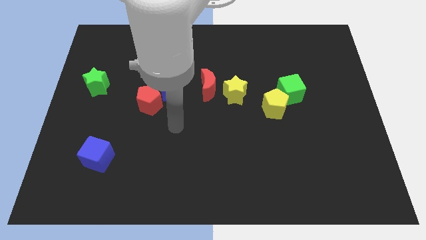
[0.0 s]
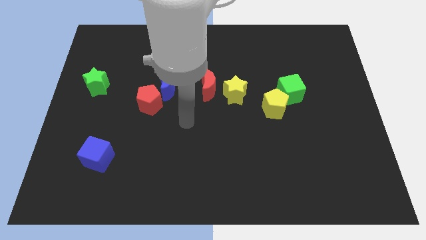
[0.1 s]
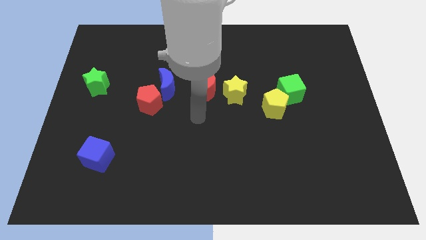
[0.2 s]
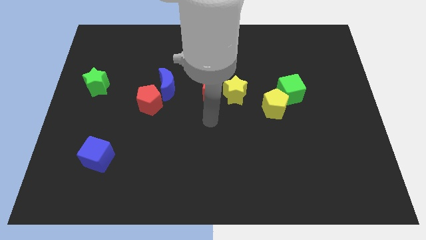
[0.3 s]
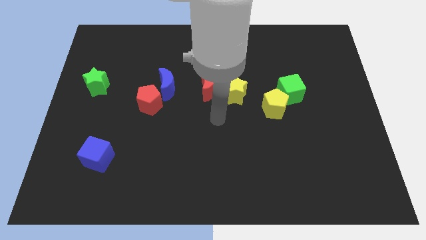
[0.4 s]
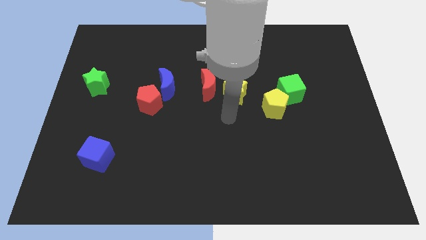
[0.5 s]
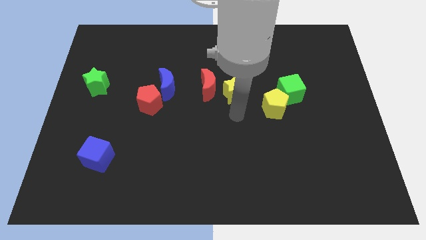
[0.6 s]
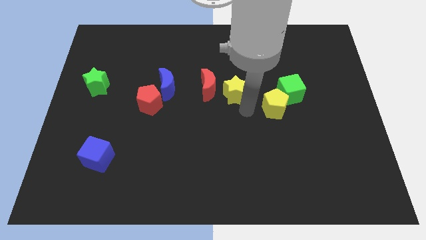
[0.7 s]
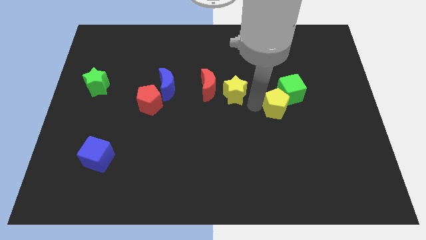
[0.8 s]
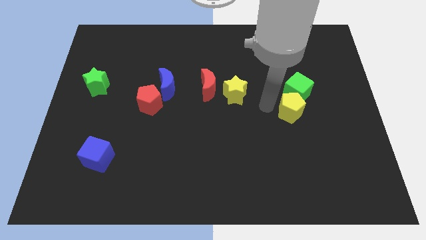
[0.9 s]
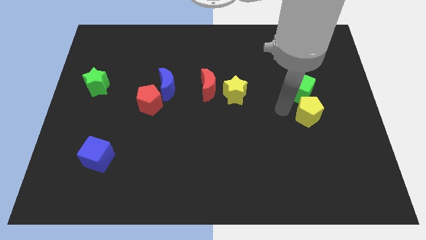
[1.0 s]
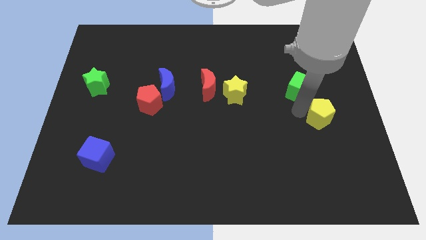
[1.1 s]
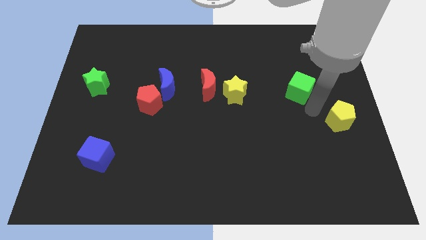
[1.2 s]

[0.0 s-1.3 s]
pull the green cube apart from the yellow pentagon

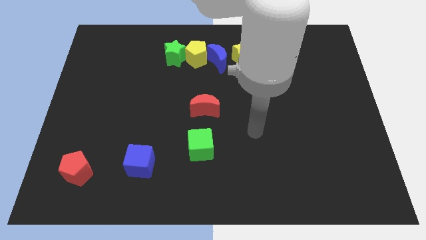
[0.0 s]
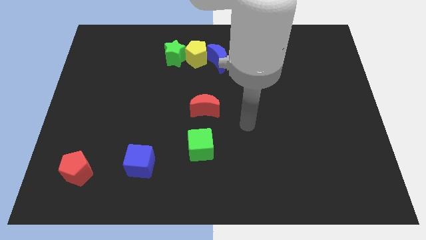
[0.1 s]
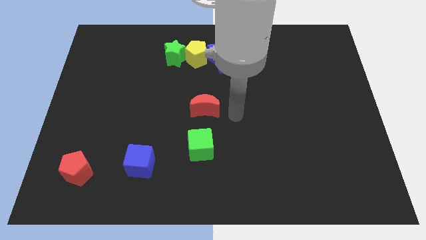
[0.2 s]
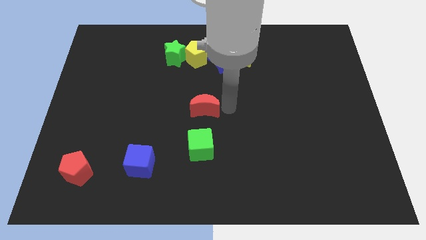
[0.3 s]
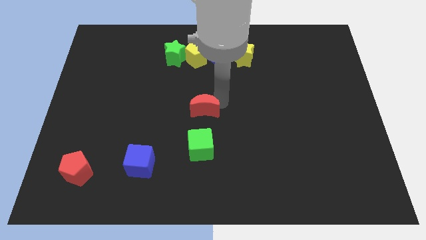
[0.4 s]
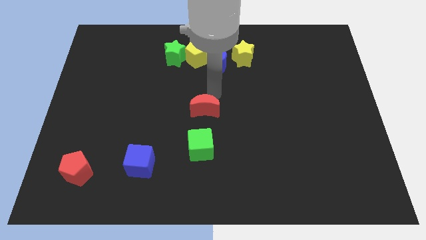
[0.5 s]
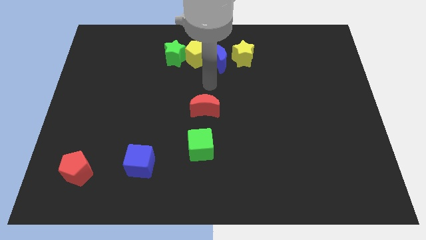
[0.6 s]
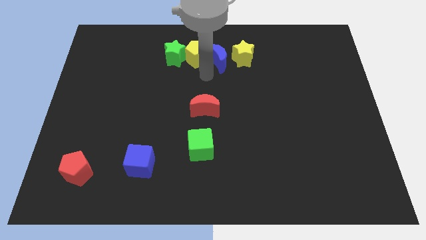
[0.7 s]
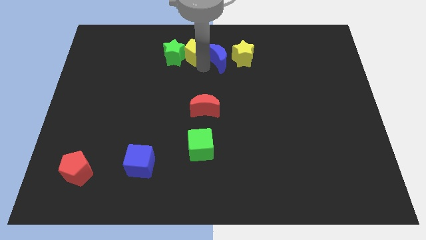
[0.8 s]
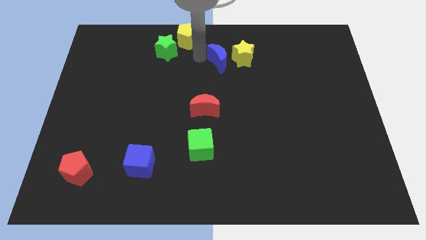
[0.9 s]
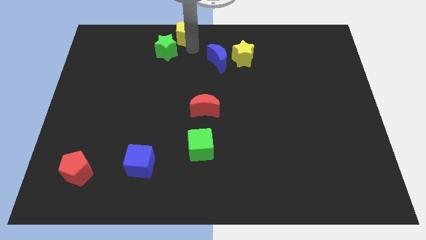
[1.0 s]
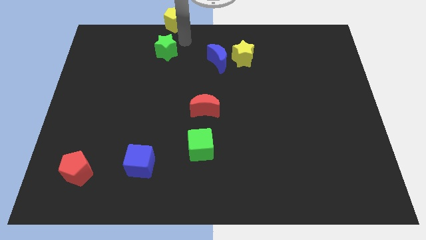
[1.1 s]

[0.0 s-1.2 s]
move the green star away from the yellow pentagon

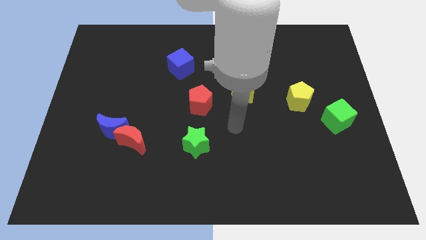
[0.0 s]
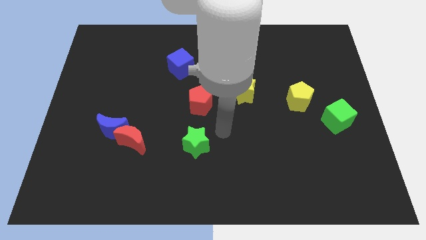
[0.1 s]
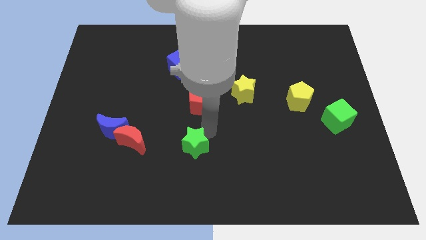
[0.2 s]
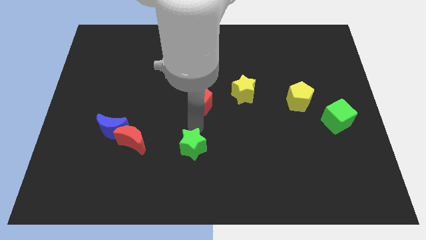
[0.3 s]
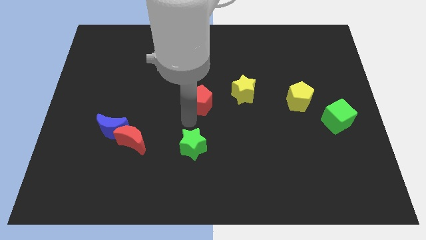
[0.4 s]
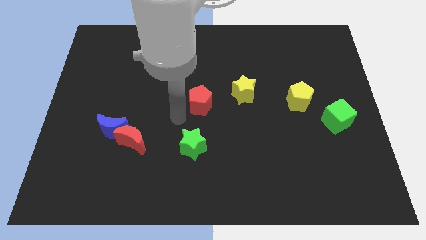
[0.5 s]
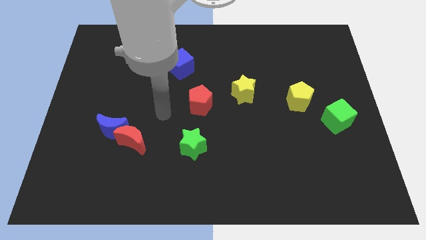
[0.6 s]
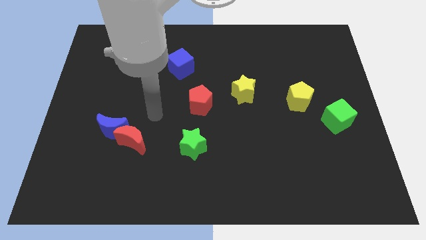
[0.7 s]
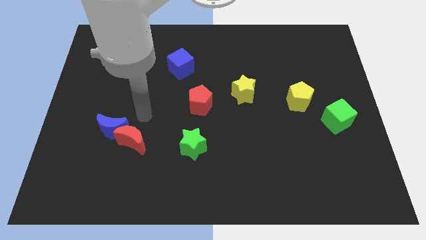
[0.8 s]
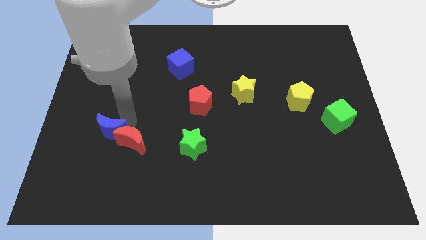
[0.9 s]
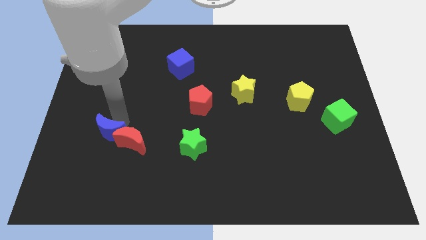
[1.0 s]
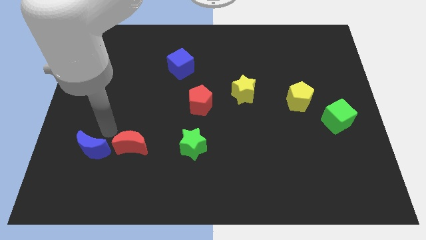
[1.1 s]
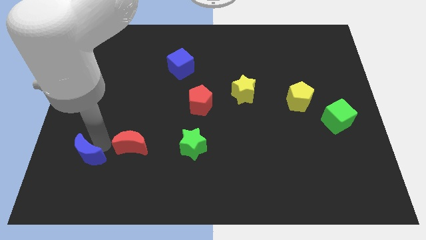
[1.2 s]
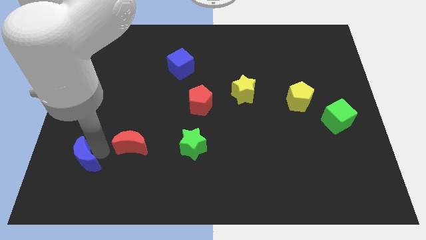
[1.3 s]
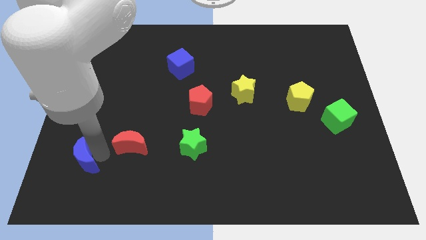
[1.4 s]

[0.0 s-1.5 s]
move the red moon away from the blue moon

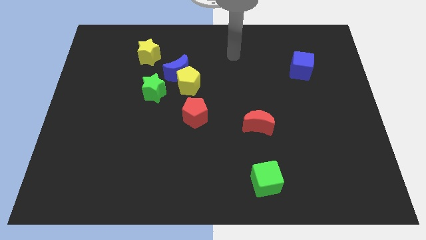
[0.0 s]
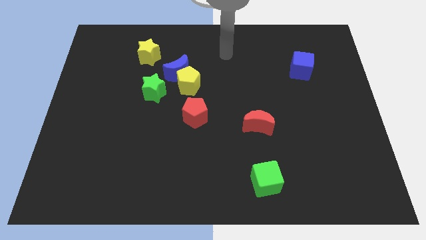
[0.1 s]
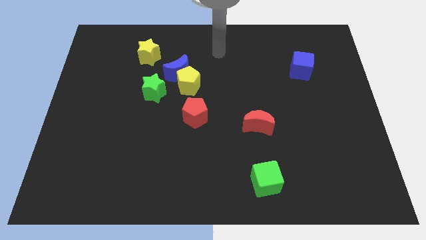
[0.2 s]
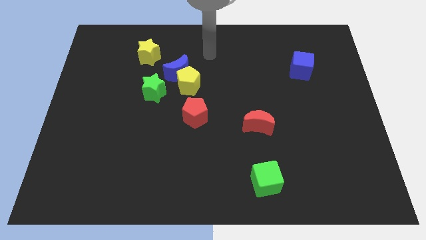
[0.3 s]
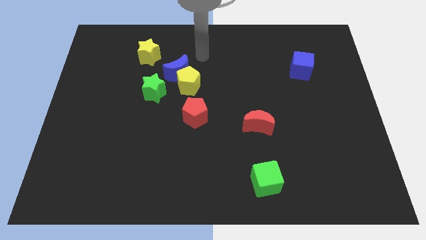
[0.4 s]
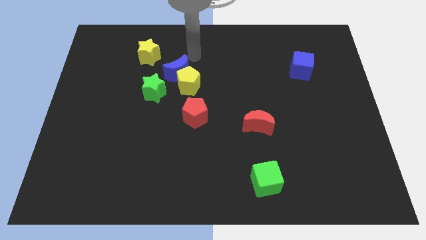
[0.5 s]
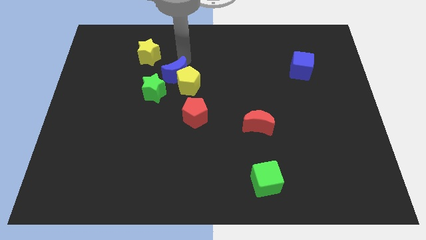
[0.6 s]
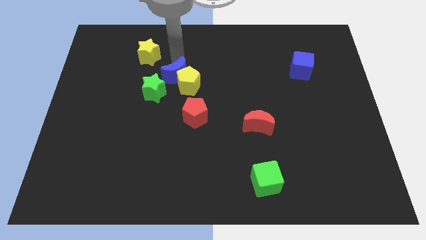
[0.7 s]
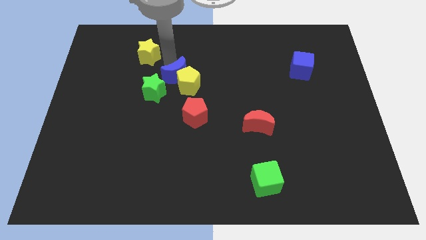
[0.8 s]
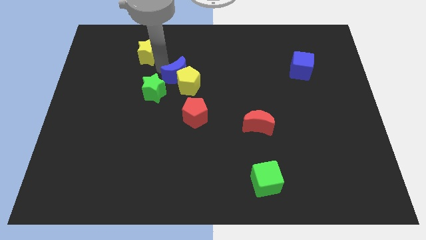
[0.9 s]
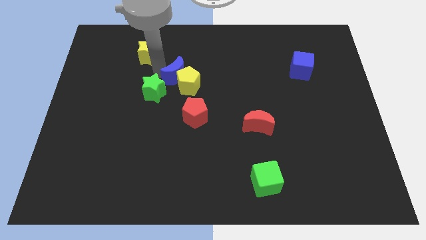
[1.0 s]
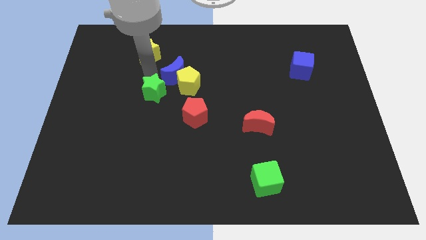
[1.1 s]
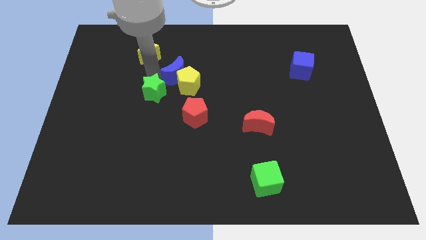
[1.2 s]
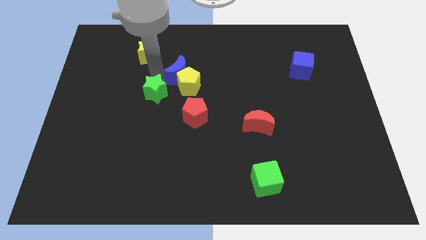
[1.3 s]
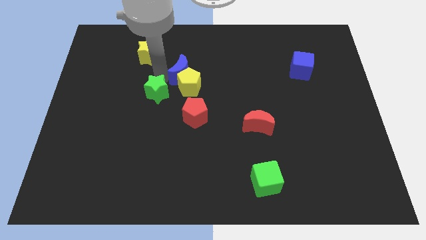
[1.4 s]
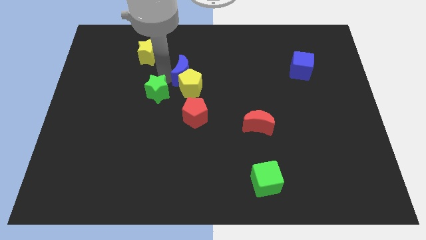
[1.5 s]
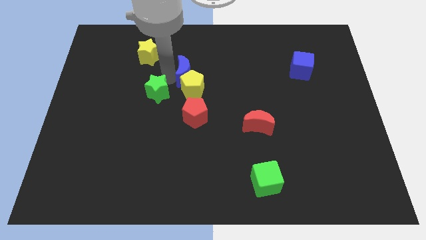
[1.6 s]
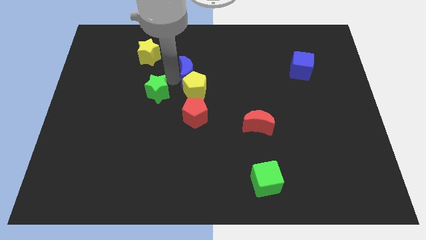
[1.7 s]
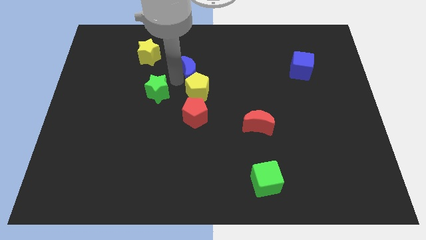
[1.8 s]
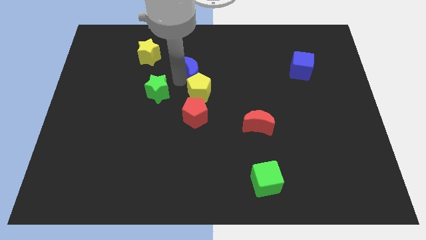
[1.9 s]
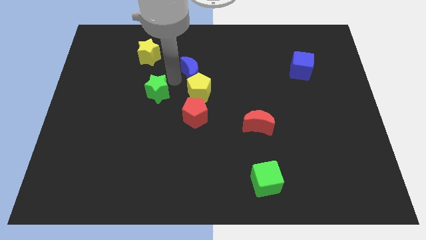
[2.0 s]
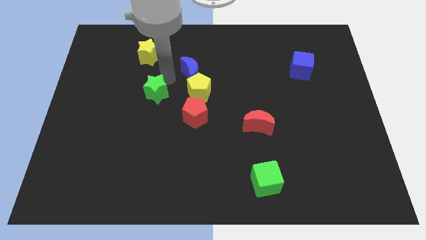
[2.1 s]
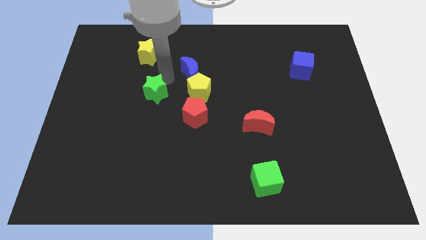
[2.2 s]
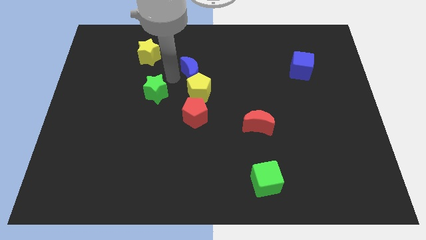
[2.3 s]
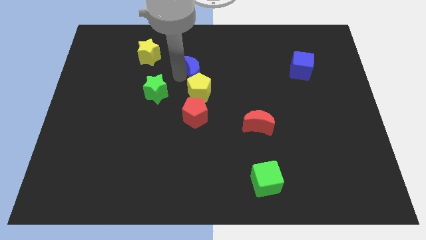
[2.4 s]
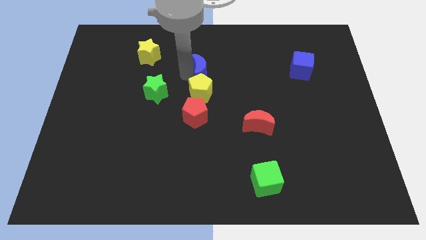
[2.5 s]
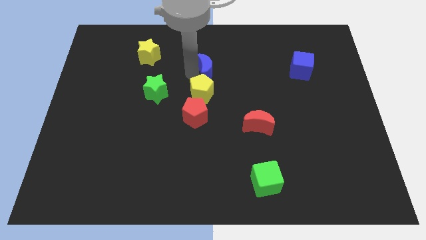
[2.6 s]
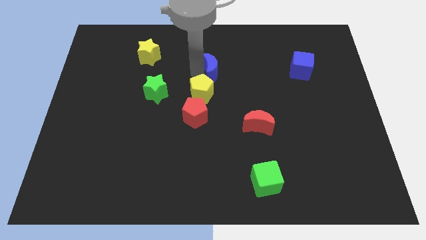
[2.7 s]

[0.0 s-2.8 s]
separate the blue moon from the group of blocks

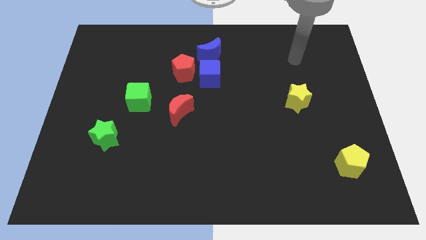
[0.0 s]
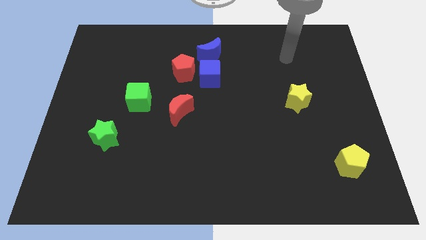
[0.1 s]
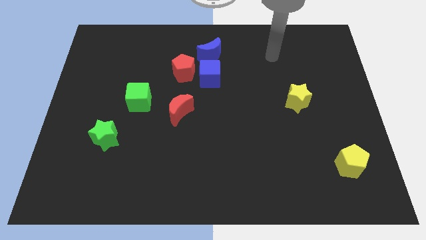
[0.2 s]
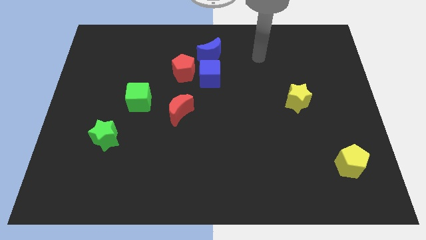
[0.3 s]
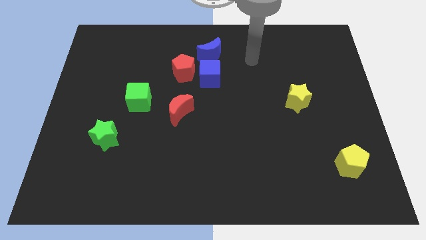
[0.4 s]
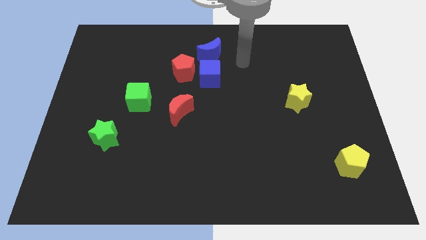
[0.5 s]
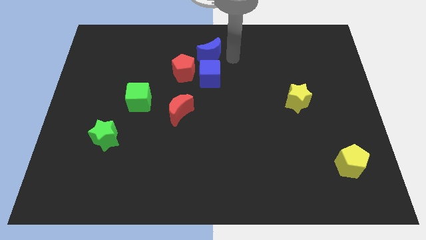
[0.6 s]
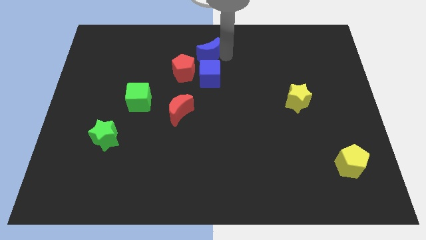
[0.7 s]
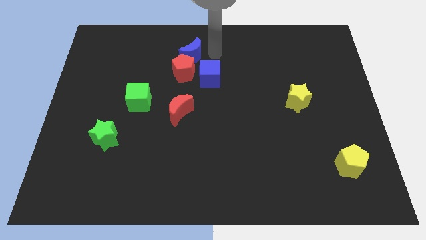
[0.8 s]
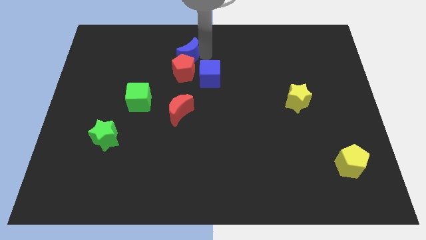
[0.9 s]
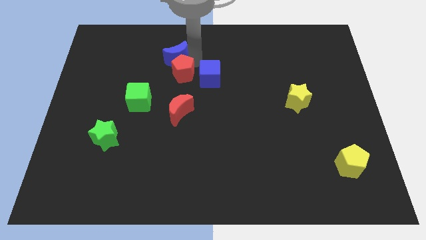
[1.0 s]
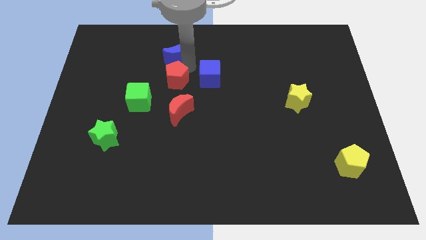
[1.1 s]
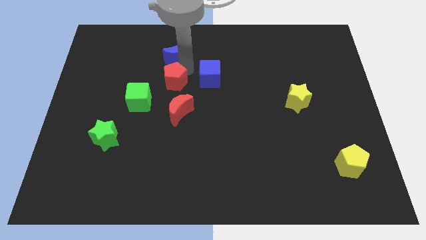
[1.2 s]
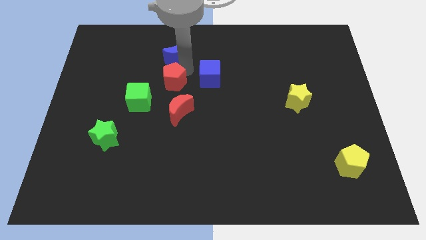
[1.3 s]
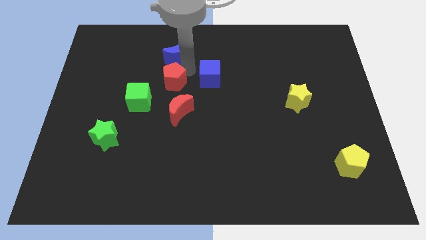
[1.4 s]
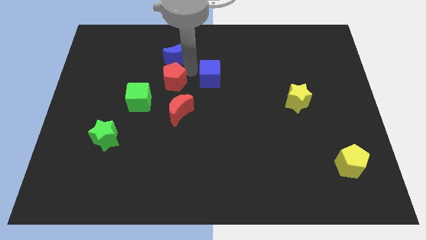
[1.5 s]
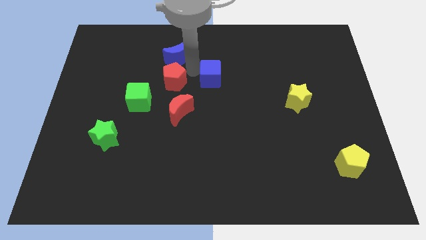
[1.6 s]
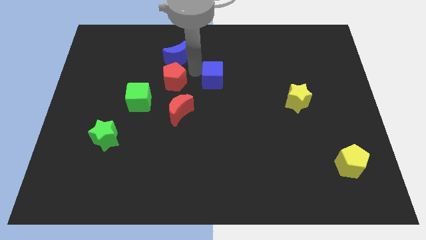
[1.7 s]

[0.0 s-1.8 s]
separate the blue cube from the red pentagon and blue moon

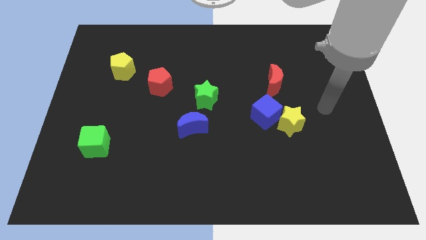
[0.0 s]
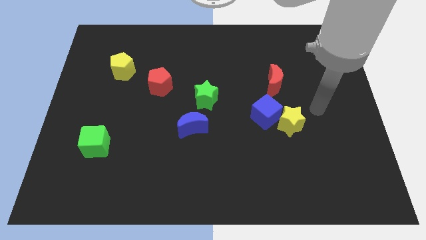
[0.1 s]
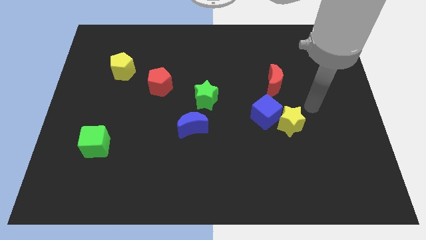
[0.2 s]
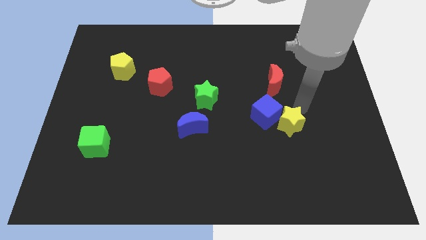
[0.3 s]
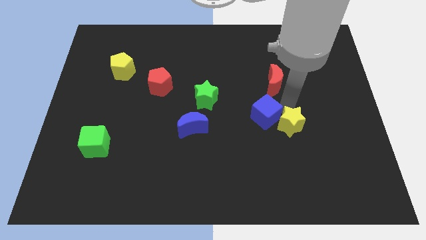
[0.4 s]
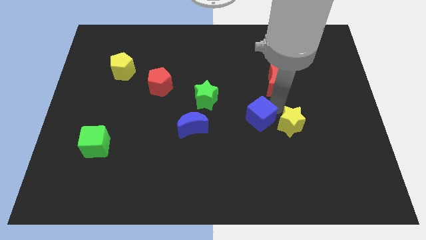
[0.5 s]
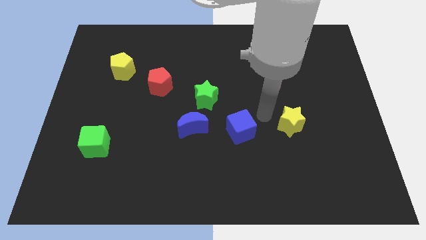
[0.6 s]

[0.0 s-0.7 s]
pull the yellow star apart from the blue cube
